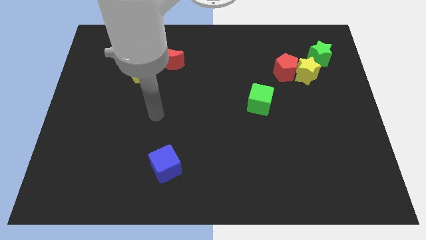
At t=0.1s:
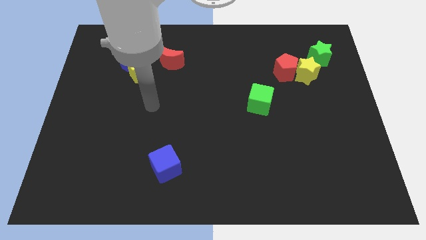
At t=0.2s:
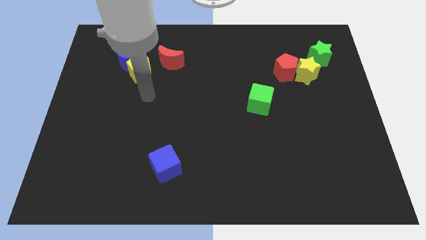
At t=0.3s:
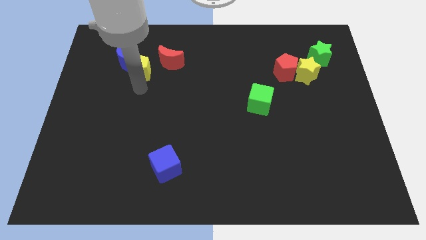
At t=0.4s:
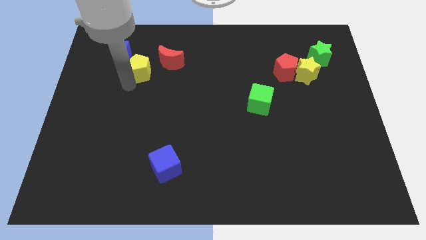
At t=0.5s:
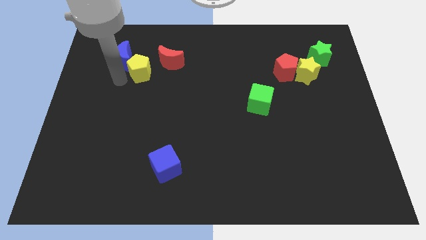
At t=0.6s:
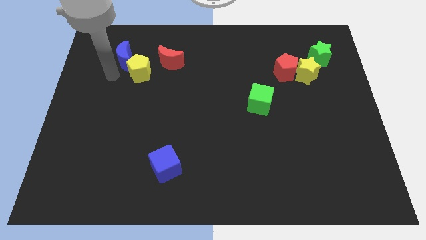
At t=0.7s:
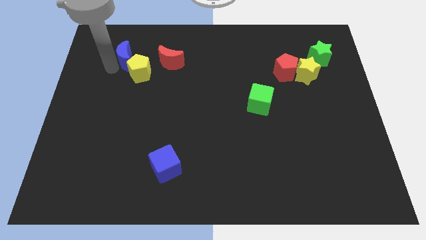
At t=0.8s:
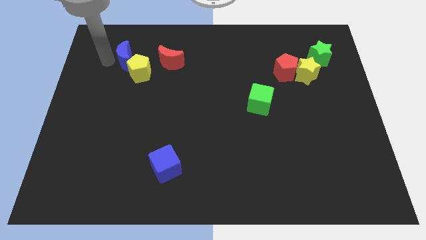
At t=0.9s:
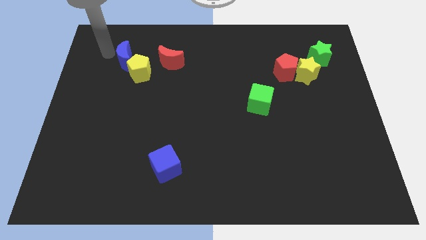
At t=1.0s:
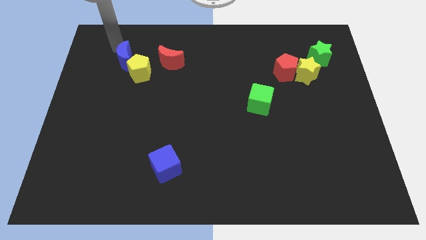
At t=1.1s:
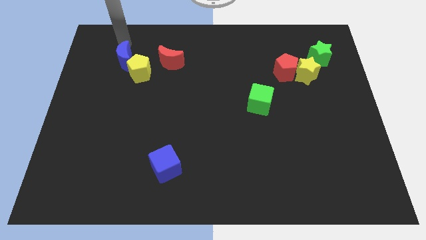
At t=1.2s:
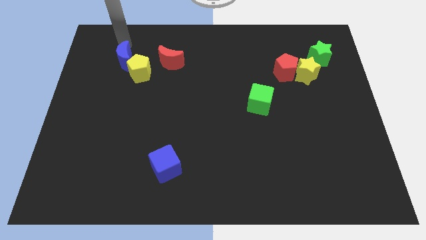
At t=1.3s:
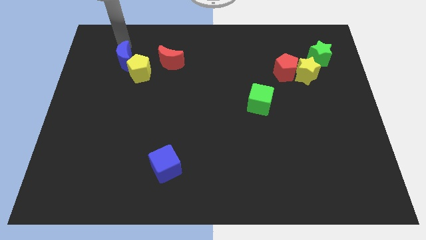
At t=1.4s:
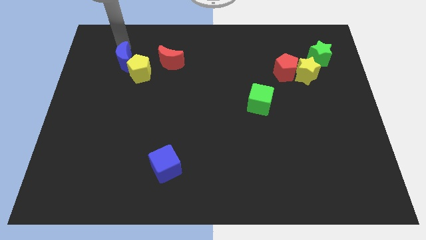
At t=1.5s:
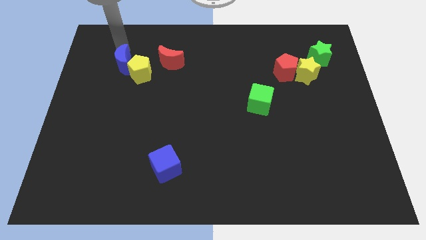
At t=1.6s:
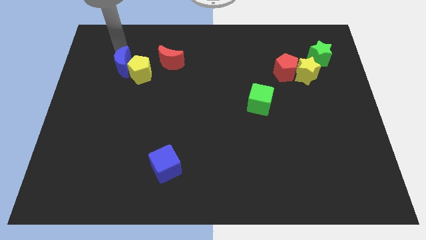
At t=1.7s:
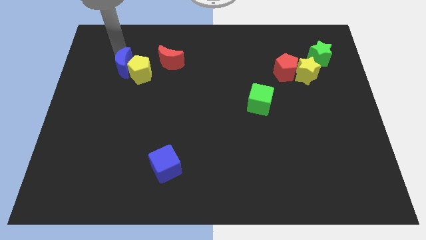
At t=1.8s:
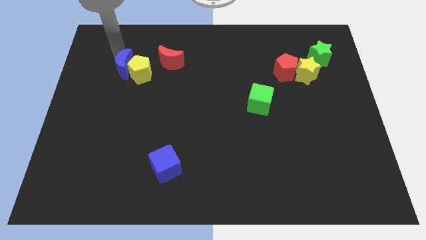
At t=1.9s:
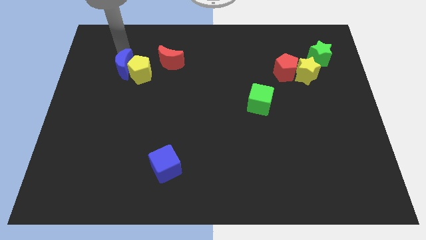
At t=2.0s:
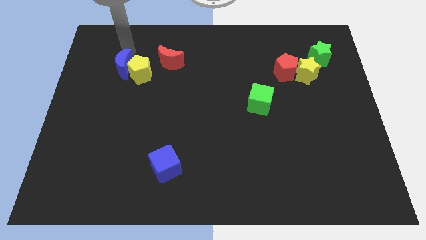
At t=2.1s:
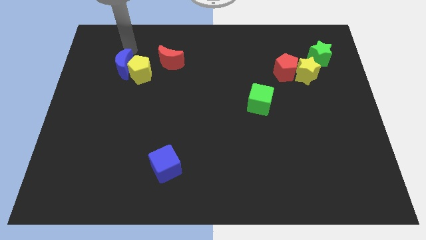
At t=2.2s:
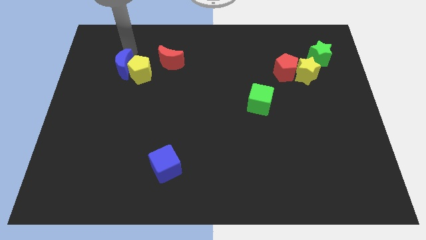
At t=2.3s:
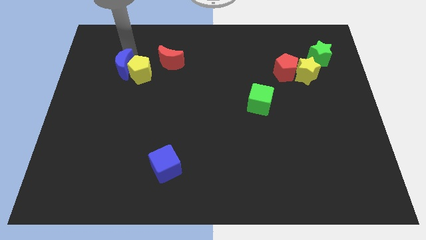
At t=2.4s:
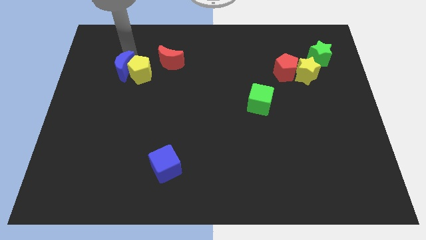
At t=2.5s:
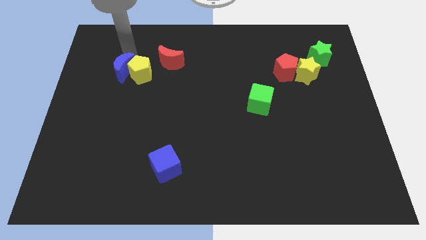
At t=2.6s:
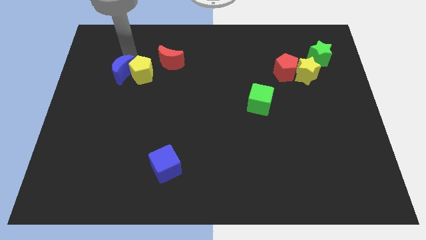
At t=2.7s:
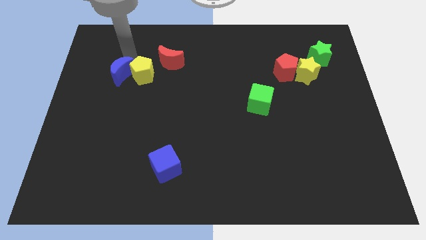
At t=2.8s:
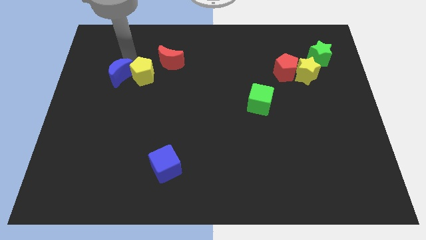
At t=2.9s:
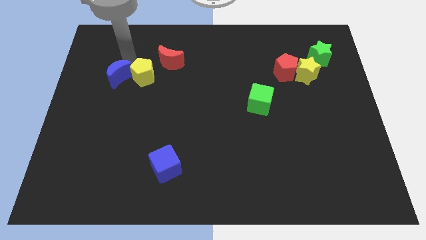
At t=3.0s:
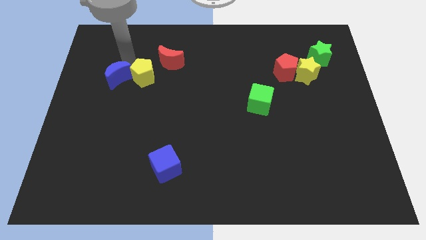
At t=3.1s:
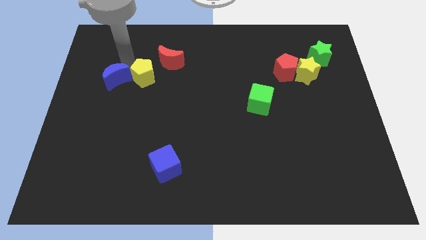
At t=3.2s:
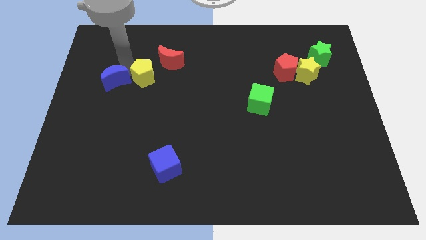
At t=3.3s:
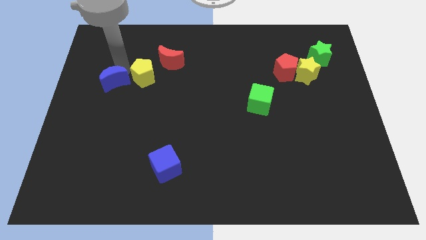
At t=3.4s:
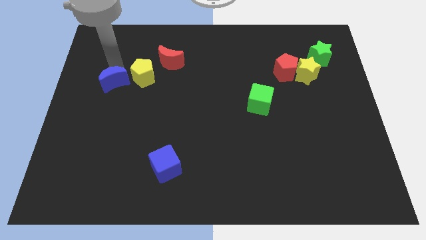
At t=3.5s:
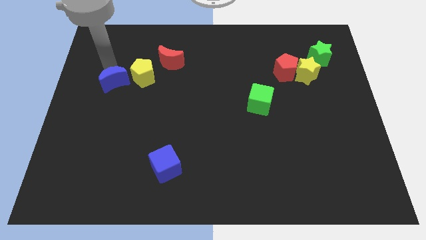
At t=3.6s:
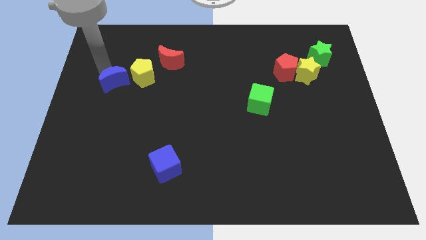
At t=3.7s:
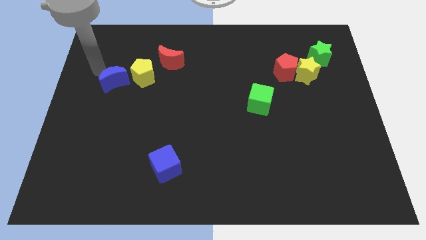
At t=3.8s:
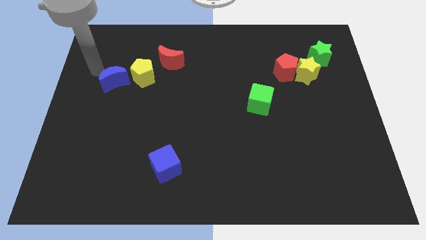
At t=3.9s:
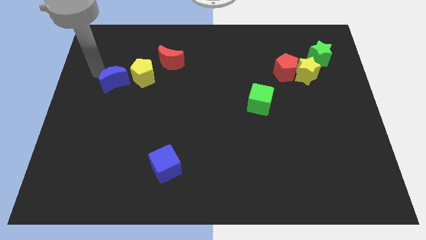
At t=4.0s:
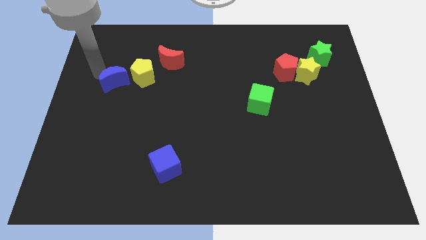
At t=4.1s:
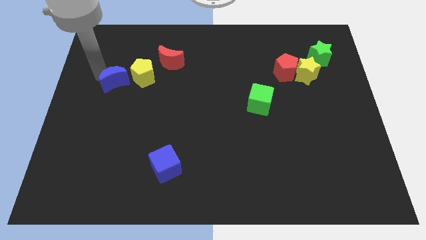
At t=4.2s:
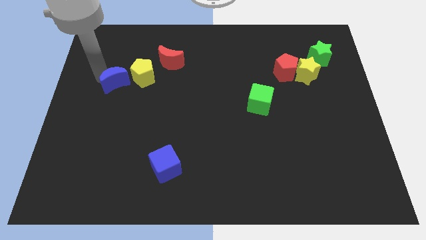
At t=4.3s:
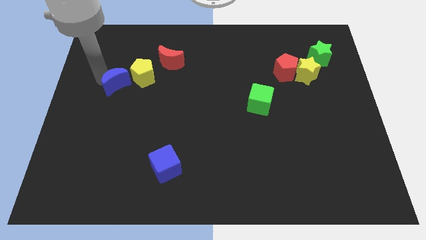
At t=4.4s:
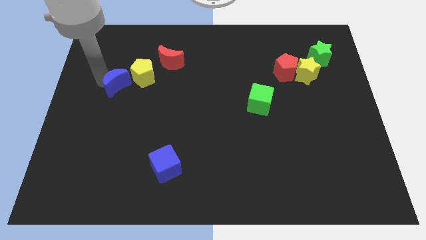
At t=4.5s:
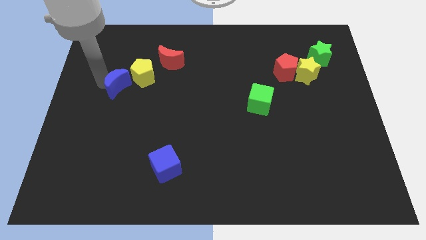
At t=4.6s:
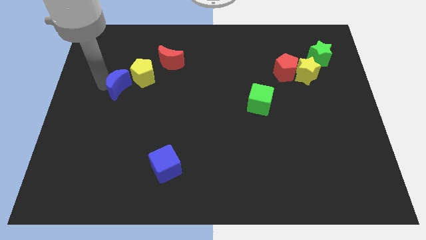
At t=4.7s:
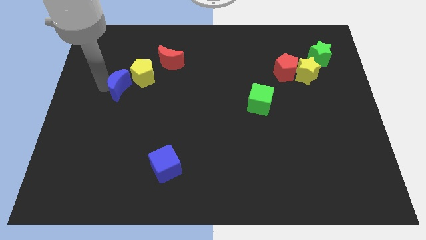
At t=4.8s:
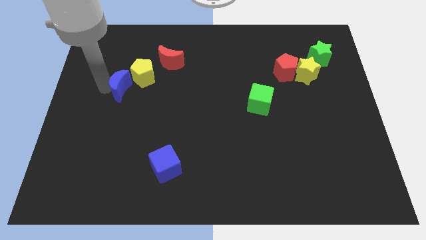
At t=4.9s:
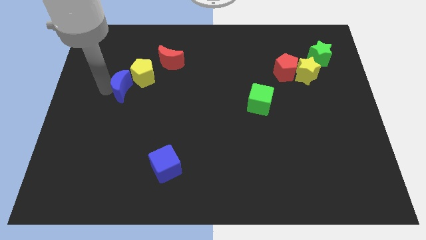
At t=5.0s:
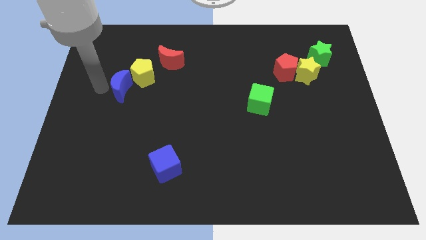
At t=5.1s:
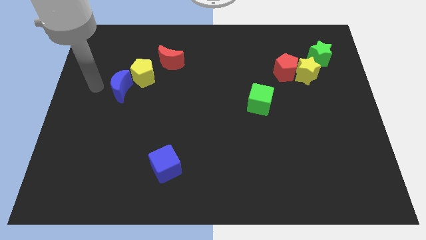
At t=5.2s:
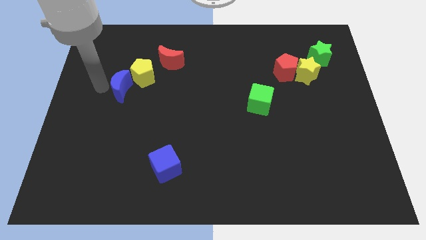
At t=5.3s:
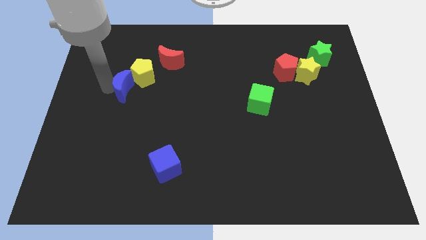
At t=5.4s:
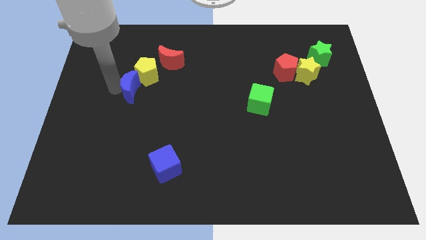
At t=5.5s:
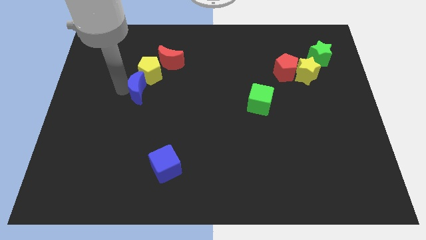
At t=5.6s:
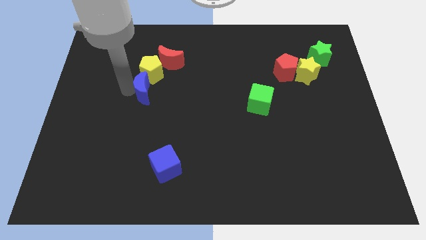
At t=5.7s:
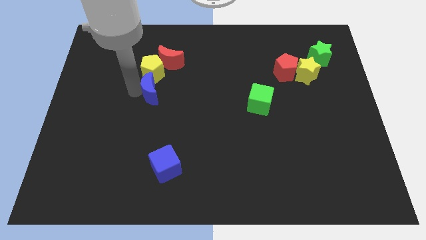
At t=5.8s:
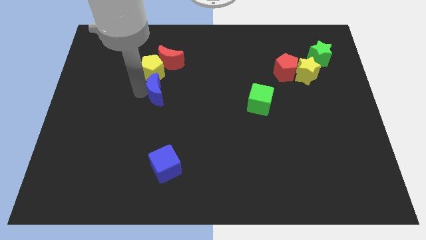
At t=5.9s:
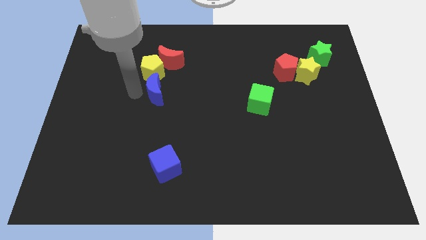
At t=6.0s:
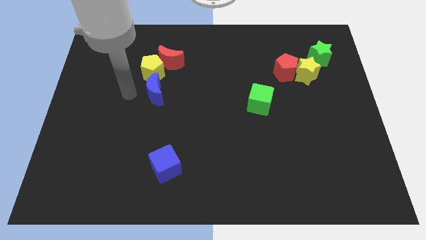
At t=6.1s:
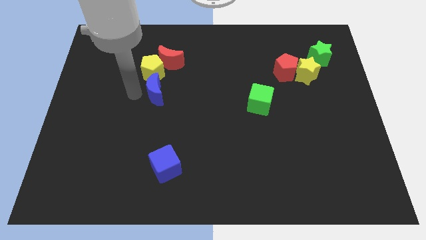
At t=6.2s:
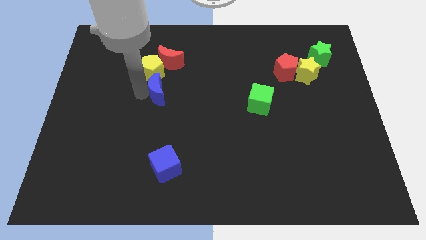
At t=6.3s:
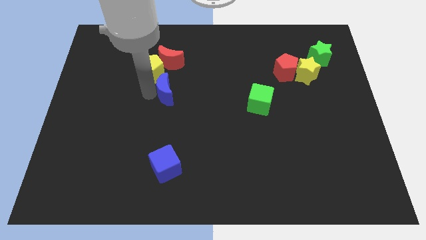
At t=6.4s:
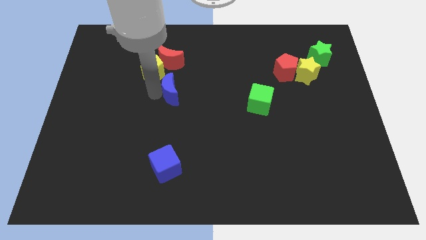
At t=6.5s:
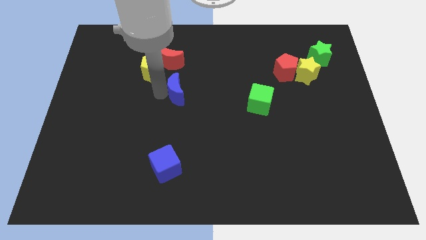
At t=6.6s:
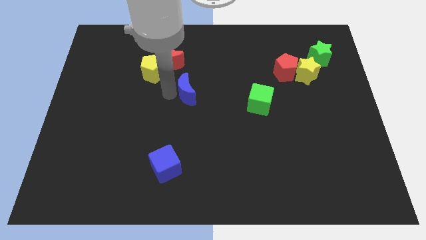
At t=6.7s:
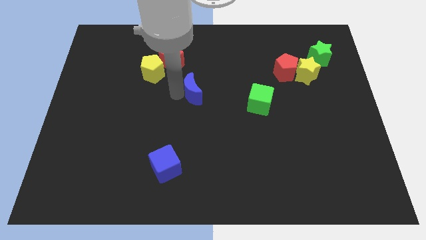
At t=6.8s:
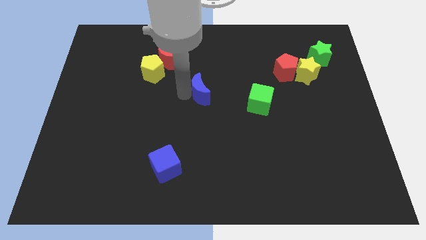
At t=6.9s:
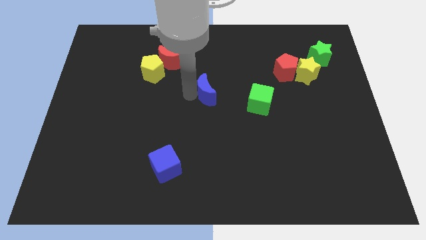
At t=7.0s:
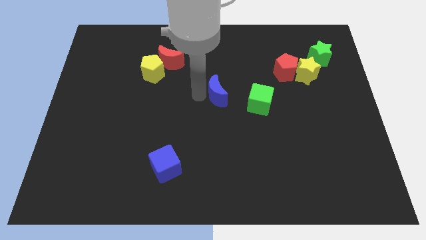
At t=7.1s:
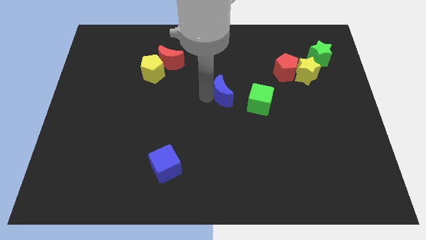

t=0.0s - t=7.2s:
slide the blue moon diagonally up and to the left of the green cube

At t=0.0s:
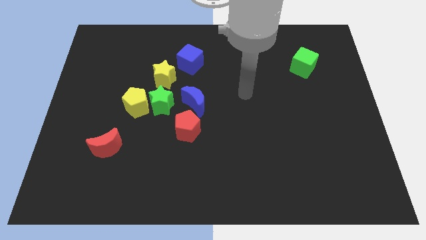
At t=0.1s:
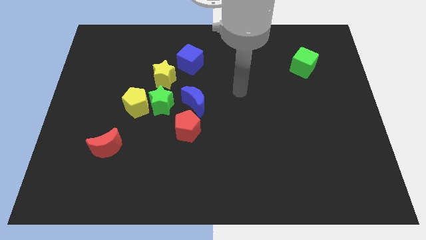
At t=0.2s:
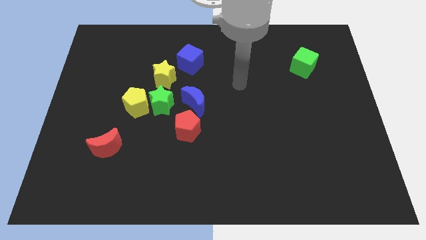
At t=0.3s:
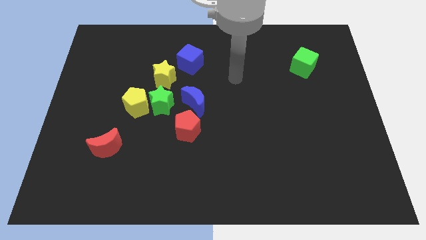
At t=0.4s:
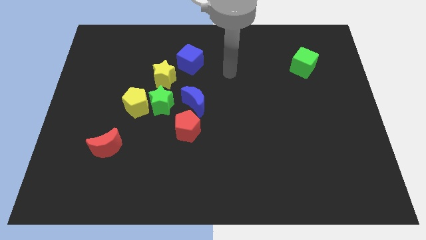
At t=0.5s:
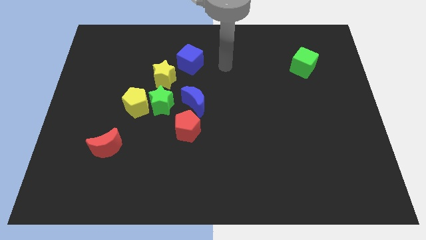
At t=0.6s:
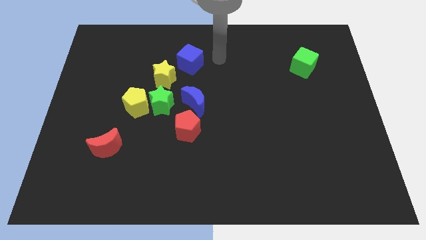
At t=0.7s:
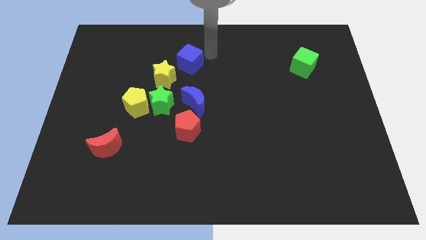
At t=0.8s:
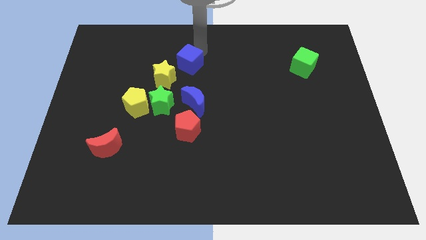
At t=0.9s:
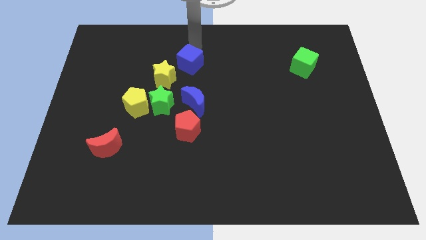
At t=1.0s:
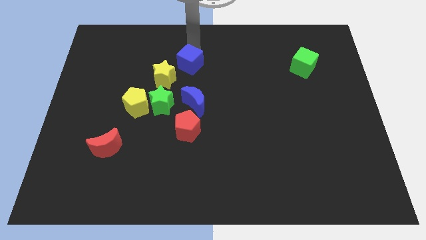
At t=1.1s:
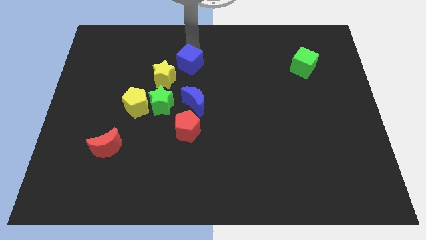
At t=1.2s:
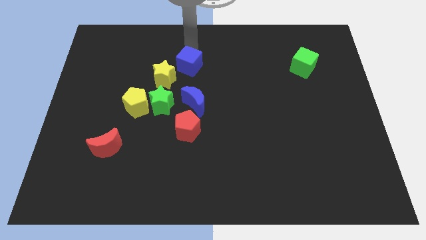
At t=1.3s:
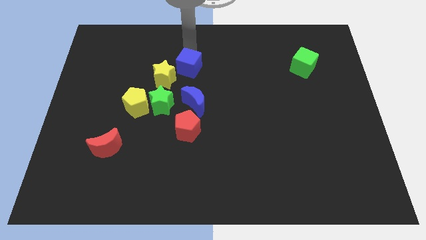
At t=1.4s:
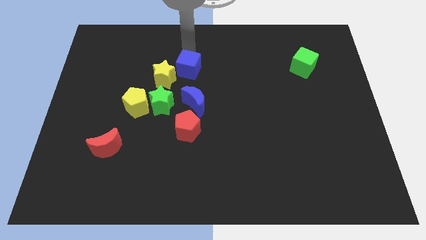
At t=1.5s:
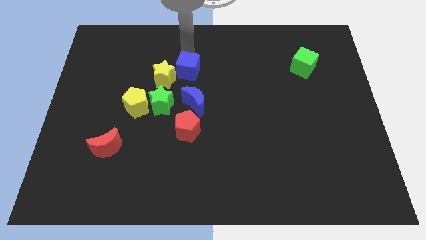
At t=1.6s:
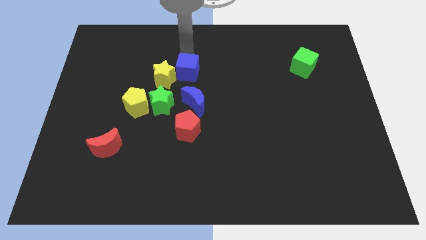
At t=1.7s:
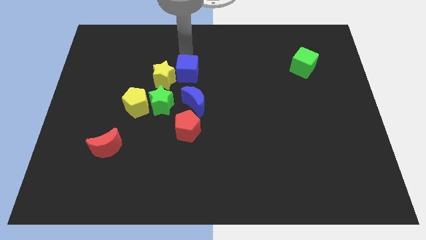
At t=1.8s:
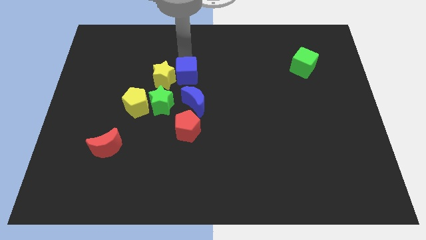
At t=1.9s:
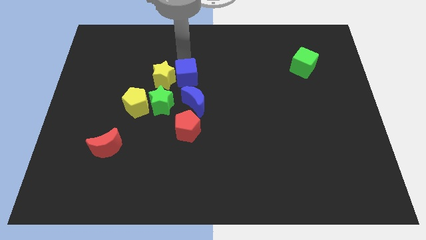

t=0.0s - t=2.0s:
slide the blue cube to the top side of the red pentagon
